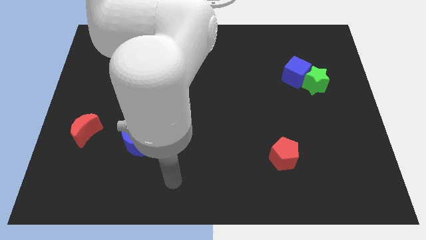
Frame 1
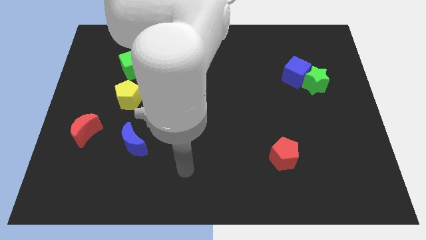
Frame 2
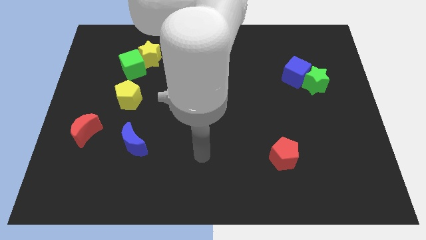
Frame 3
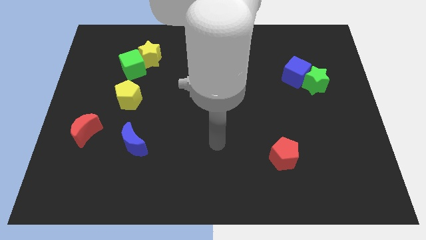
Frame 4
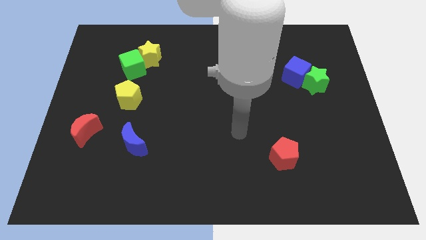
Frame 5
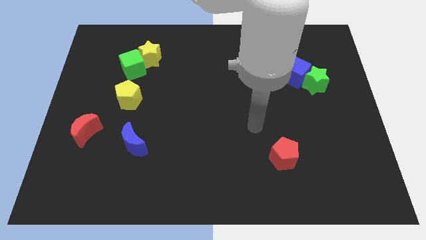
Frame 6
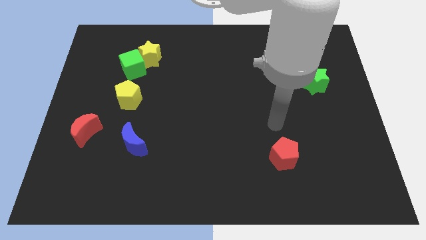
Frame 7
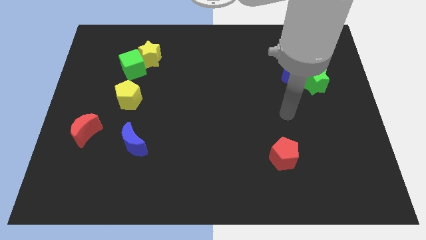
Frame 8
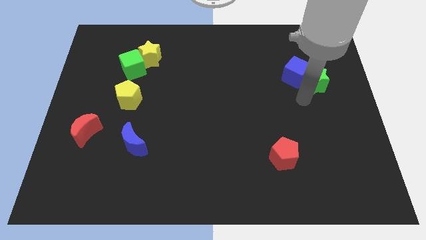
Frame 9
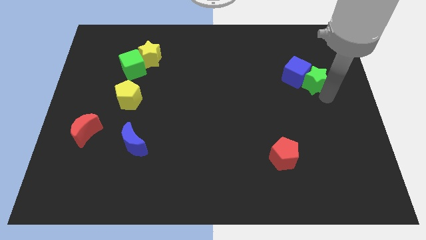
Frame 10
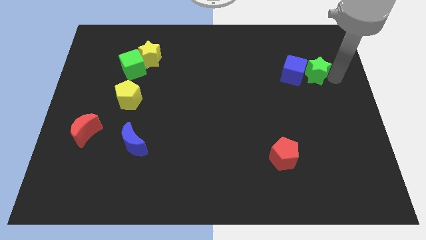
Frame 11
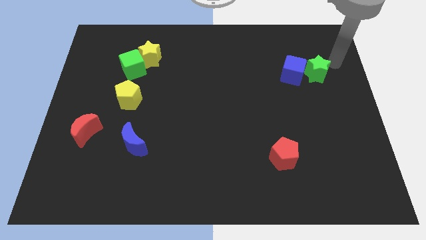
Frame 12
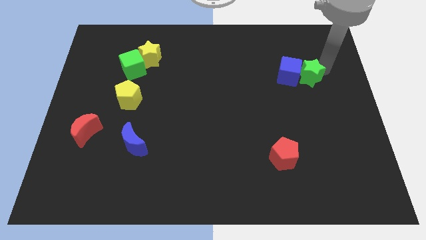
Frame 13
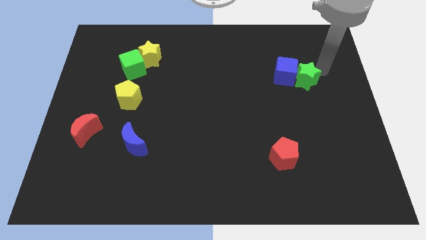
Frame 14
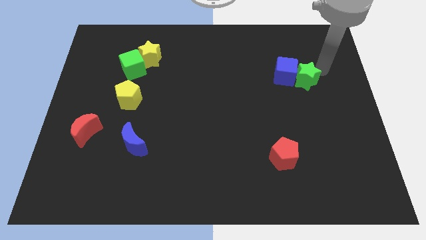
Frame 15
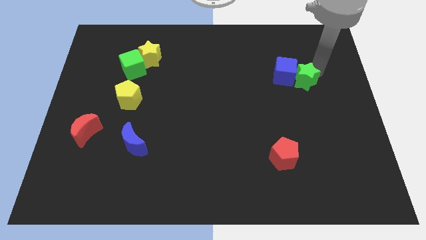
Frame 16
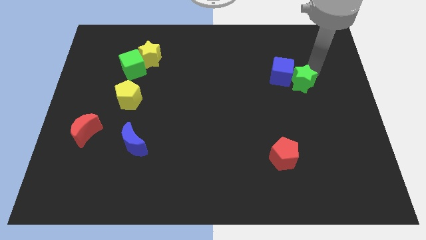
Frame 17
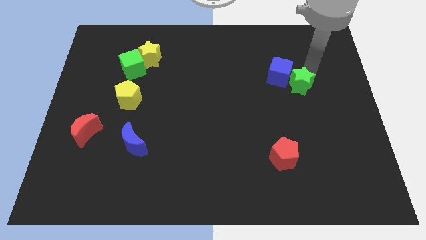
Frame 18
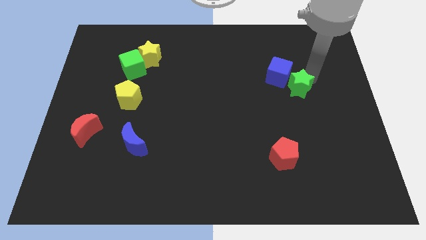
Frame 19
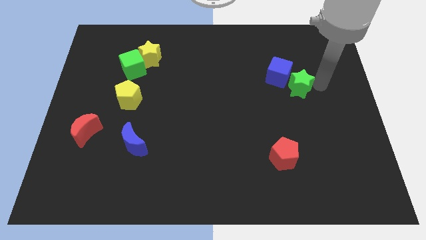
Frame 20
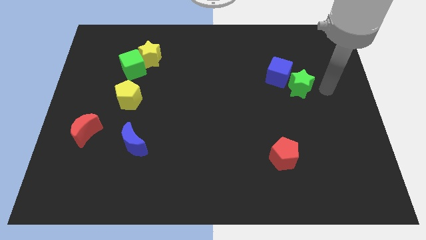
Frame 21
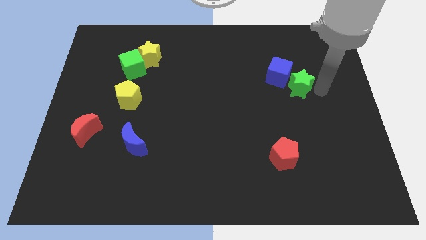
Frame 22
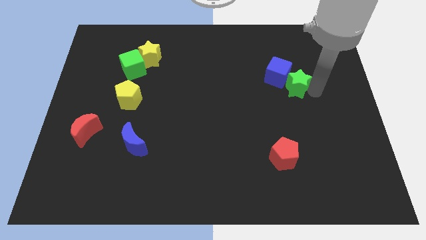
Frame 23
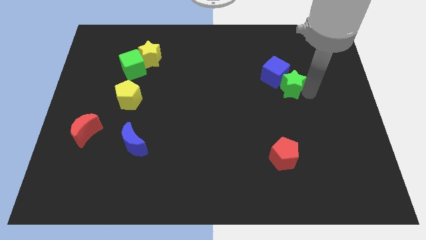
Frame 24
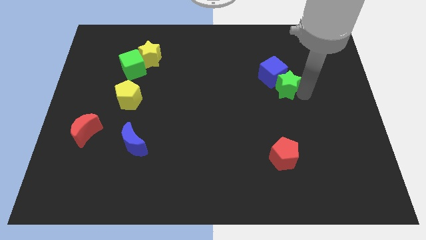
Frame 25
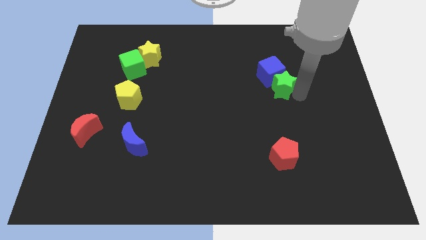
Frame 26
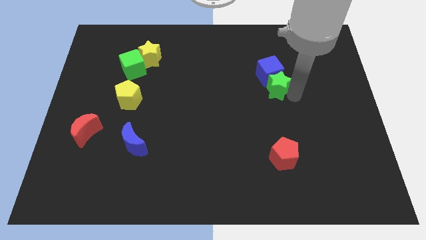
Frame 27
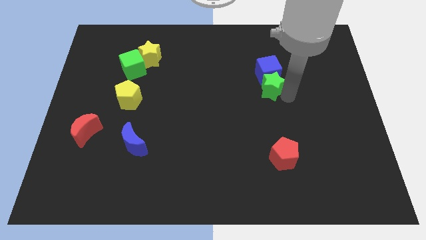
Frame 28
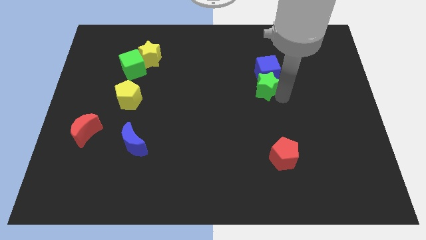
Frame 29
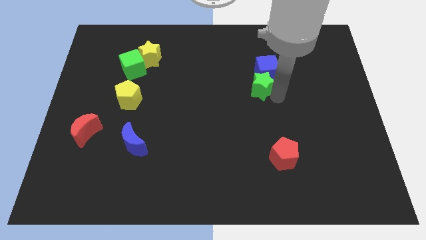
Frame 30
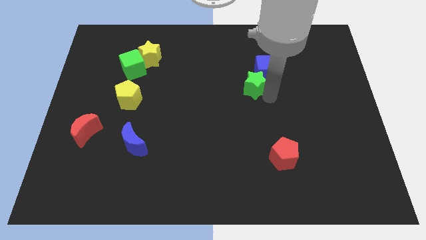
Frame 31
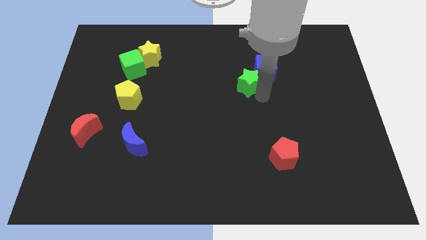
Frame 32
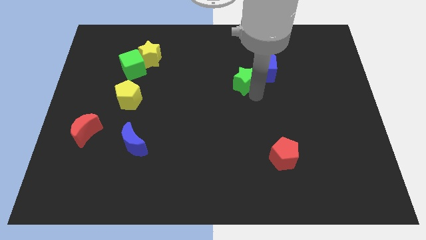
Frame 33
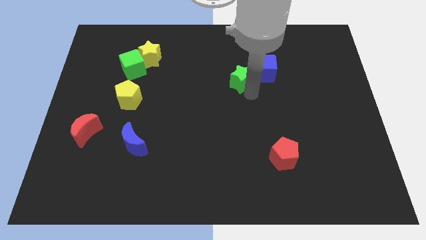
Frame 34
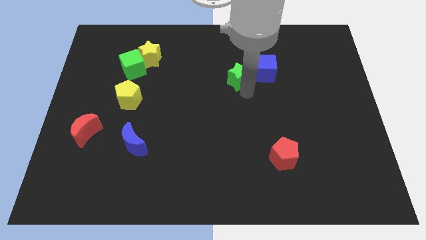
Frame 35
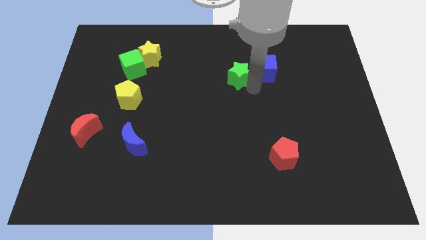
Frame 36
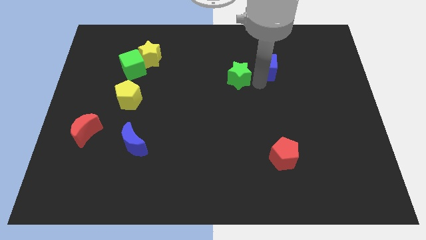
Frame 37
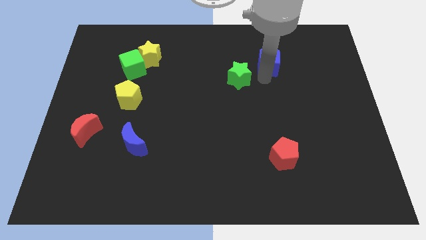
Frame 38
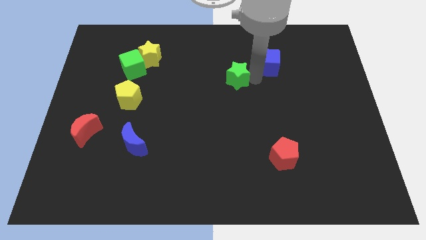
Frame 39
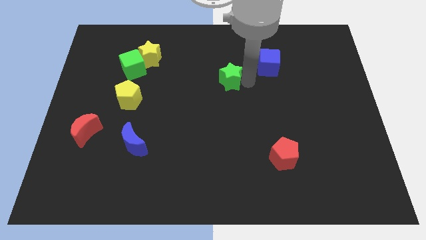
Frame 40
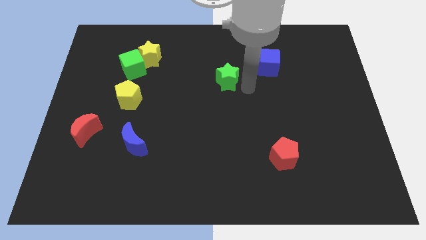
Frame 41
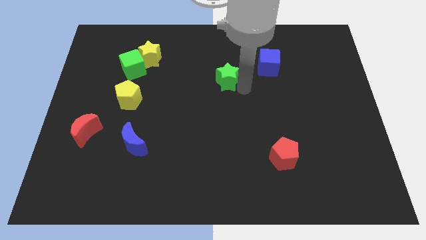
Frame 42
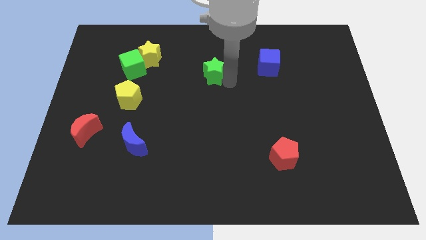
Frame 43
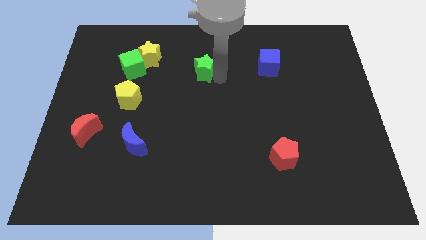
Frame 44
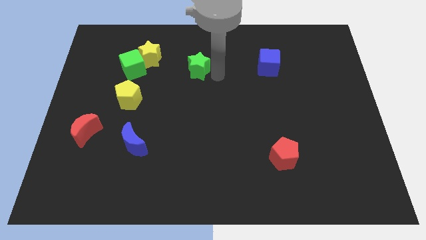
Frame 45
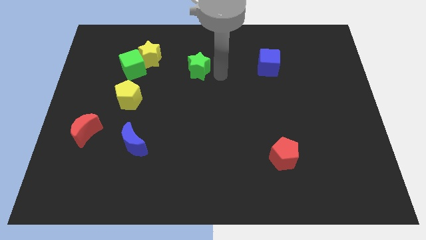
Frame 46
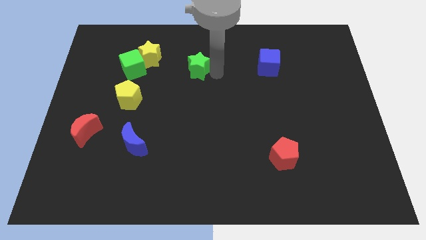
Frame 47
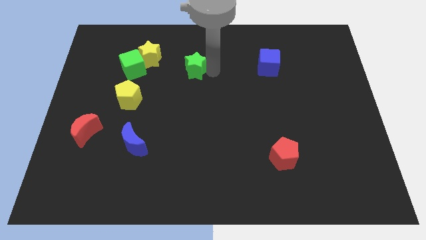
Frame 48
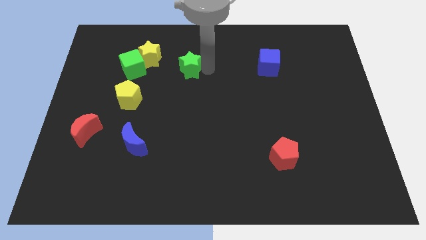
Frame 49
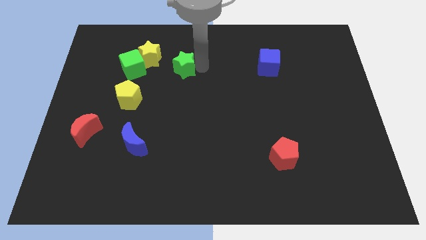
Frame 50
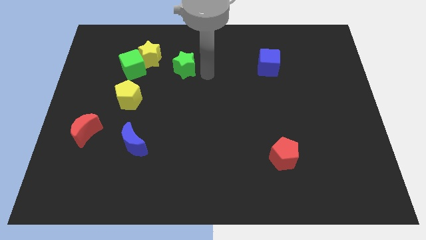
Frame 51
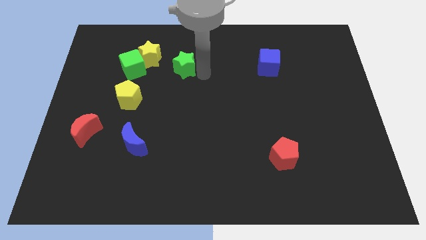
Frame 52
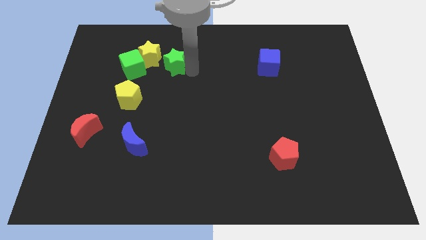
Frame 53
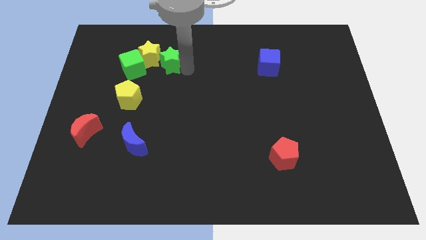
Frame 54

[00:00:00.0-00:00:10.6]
push the green star towards the yellow star

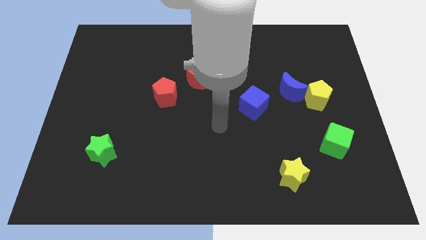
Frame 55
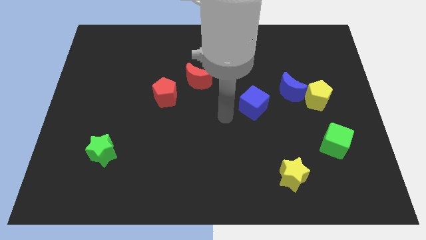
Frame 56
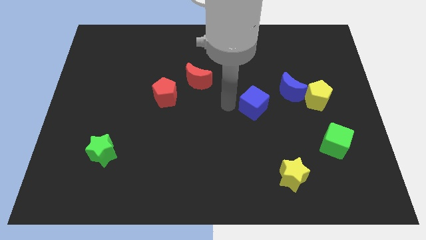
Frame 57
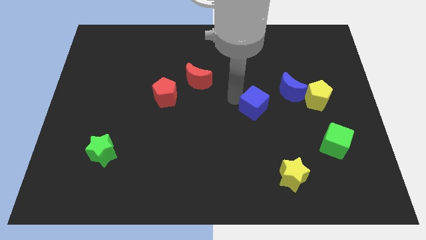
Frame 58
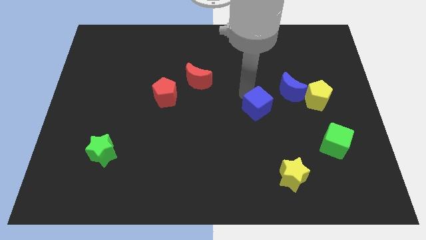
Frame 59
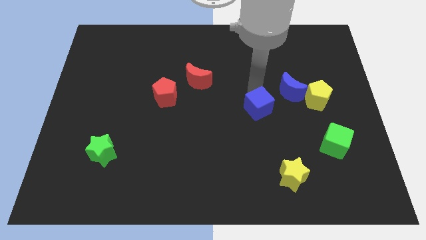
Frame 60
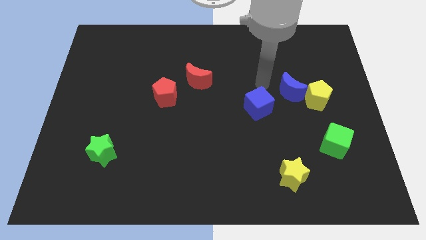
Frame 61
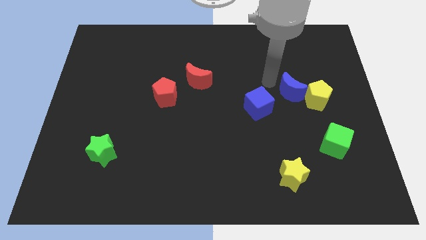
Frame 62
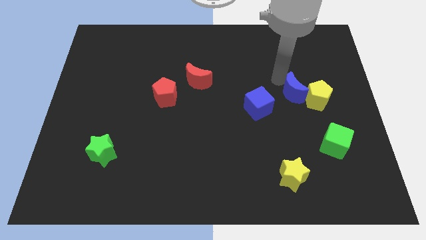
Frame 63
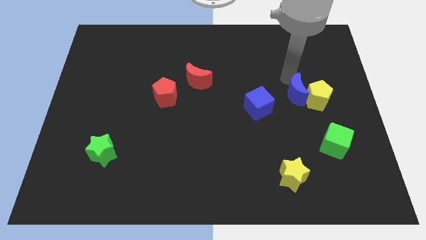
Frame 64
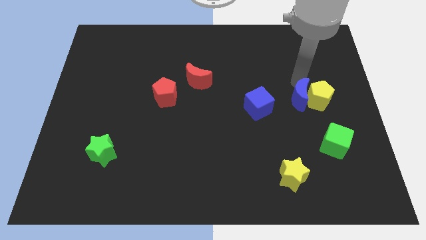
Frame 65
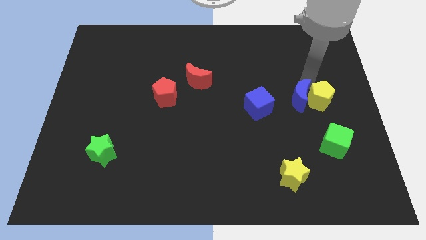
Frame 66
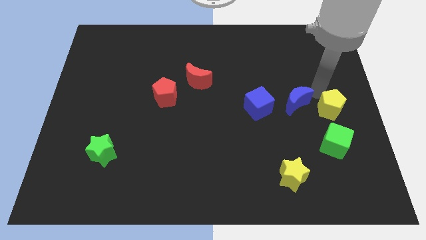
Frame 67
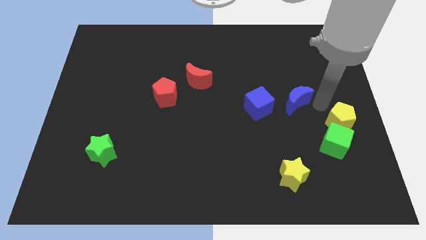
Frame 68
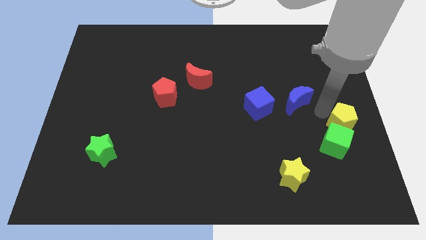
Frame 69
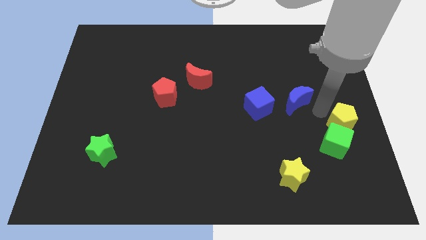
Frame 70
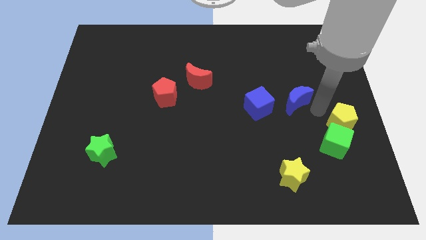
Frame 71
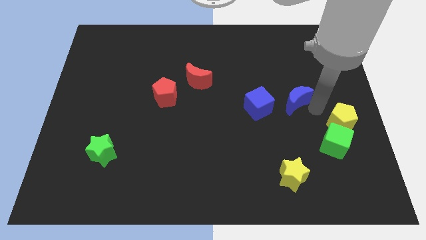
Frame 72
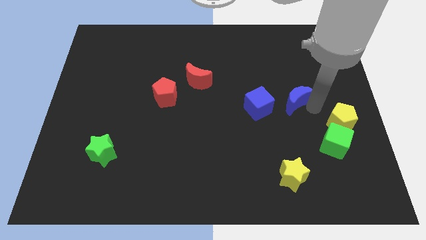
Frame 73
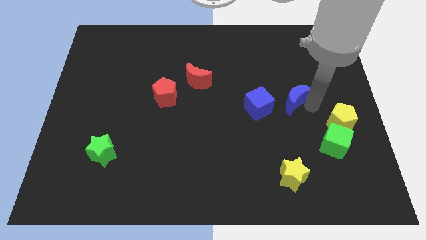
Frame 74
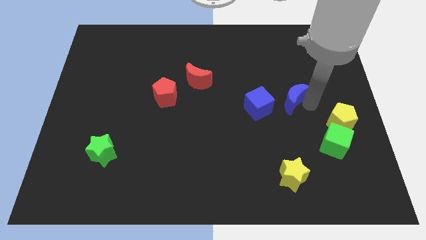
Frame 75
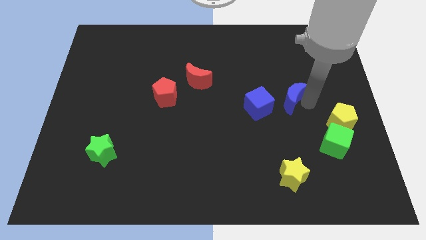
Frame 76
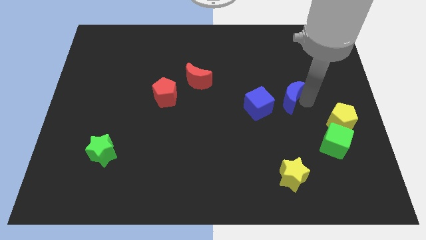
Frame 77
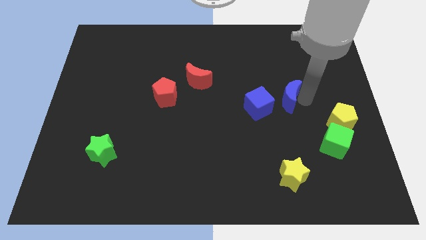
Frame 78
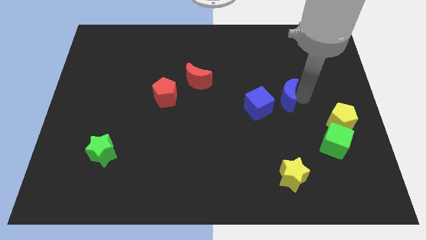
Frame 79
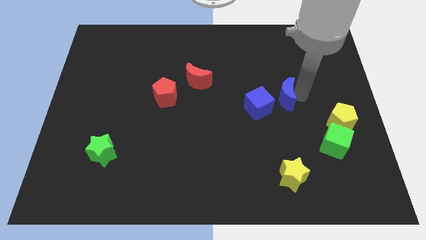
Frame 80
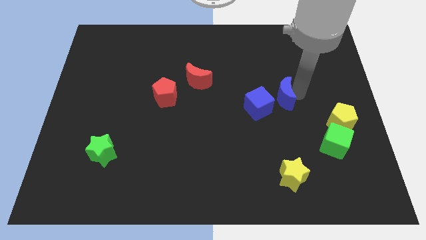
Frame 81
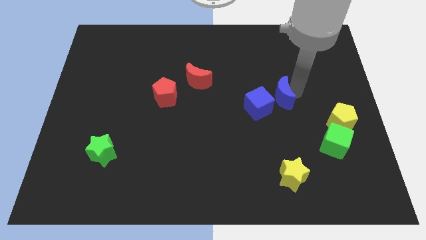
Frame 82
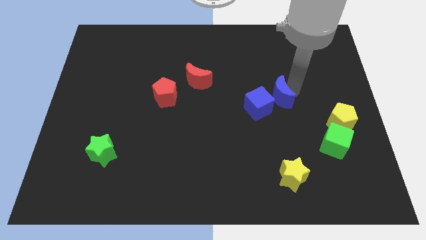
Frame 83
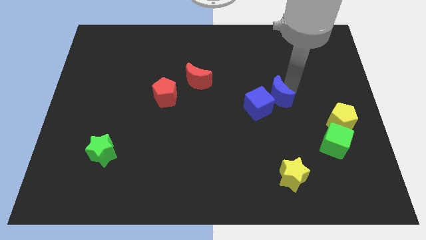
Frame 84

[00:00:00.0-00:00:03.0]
put the blue moon close to the blue cube

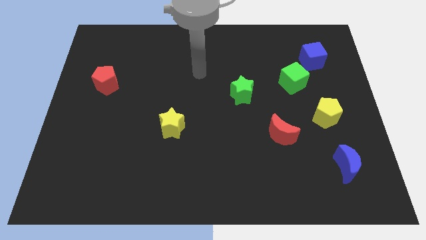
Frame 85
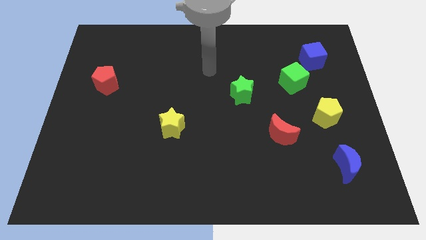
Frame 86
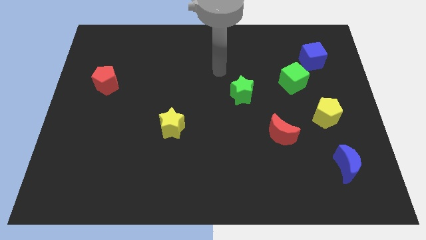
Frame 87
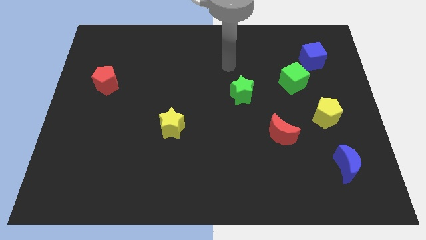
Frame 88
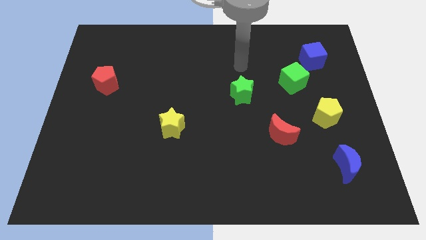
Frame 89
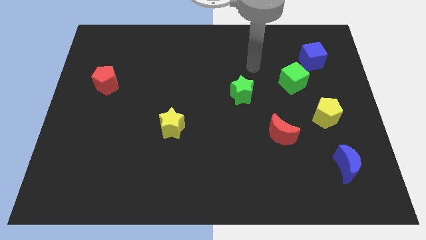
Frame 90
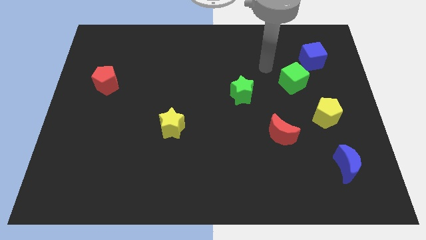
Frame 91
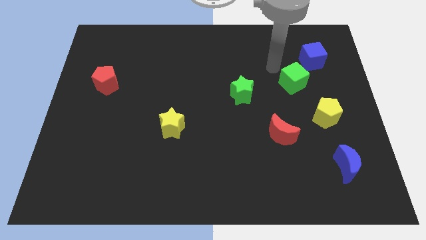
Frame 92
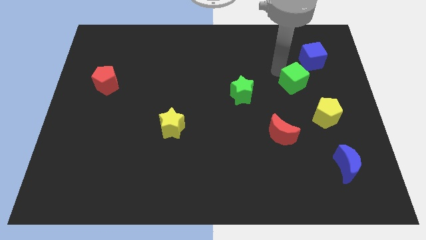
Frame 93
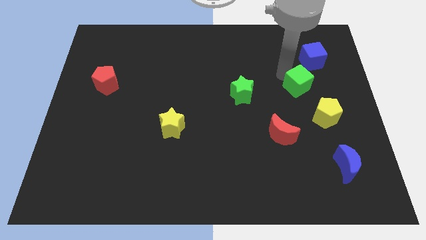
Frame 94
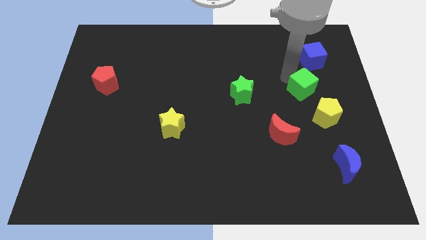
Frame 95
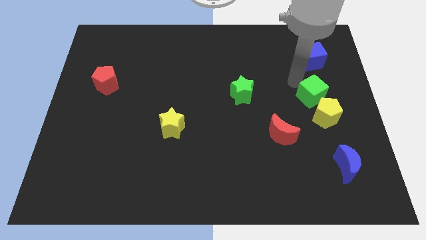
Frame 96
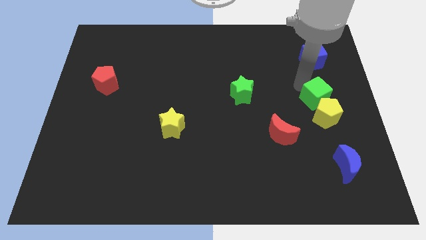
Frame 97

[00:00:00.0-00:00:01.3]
push the green cube next to the yellow pentagon
